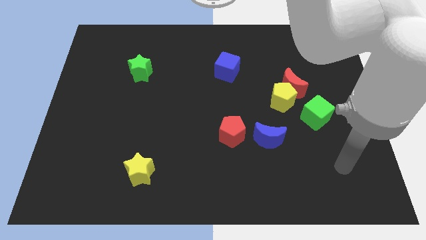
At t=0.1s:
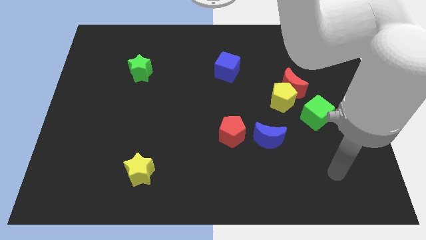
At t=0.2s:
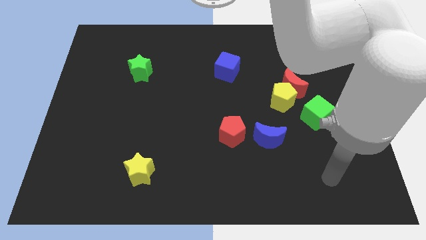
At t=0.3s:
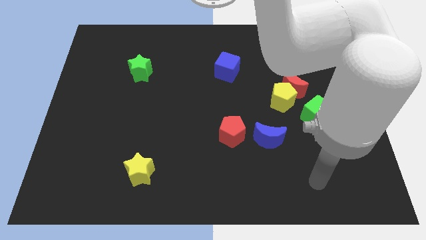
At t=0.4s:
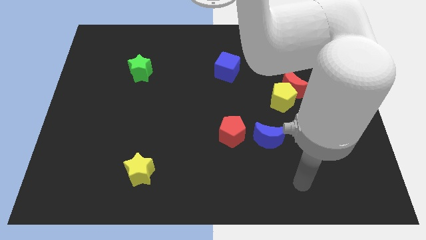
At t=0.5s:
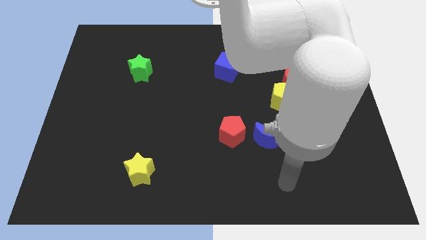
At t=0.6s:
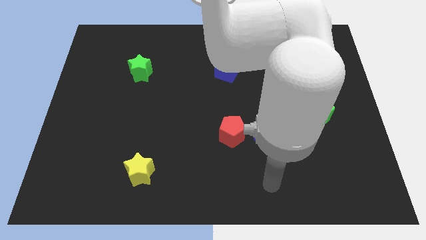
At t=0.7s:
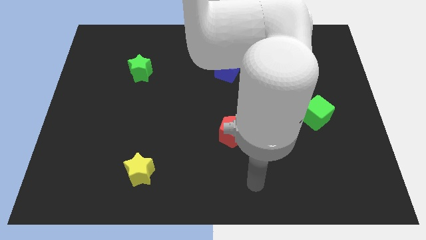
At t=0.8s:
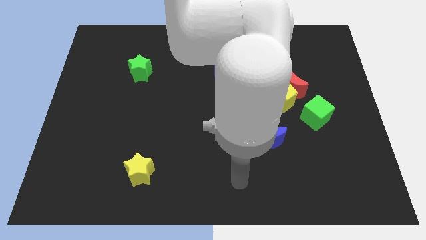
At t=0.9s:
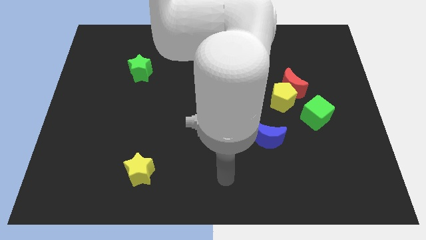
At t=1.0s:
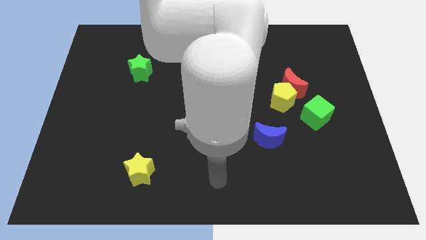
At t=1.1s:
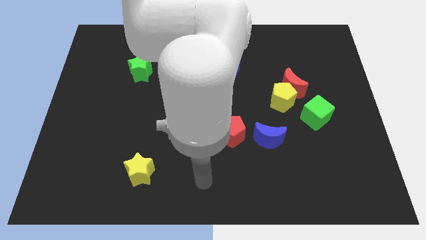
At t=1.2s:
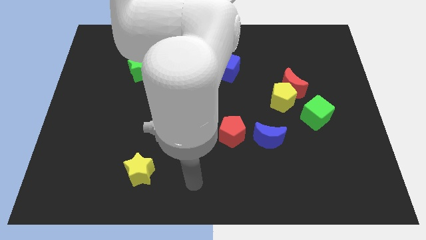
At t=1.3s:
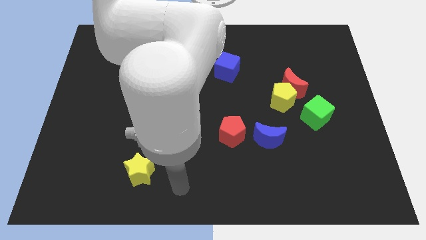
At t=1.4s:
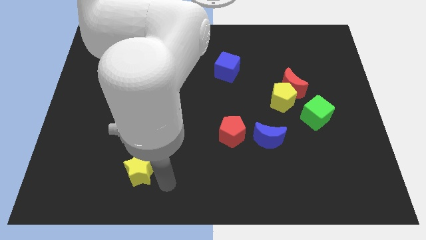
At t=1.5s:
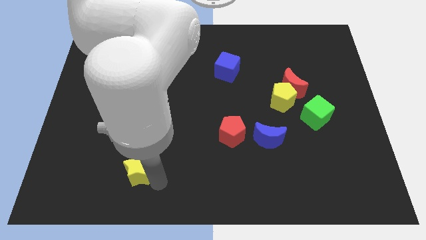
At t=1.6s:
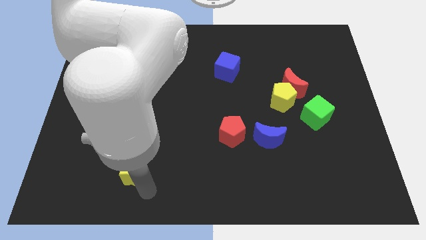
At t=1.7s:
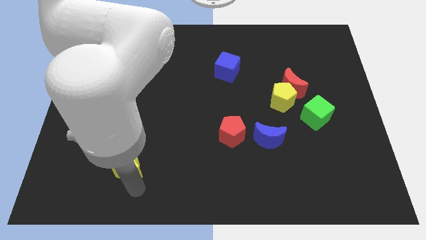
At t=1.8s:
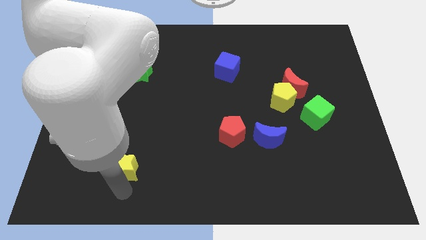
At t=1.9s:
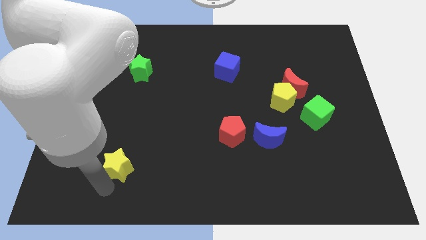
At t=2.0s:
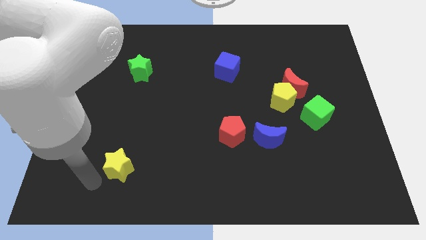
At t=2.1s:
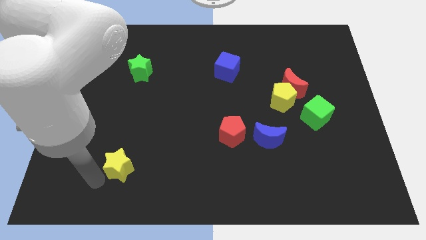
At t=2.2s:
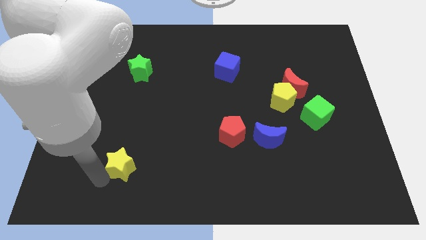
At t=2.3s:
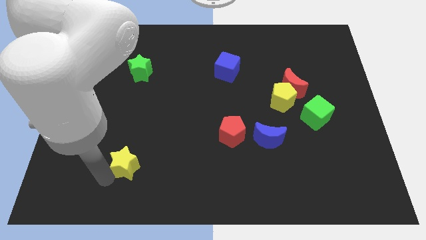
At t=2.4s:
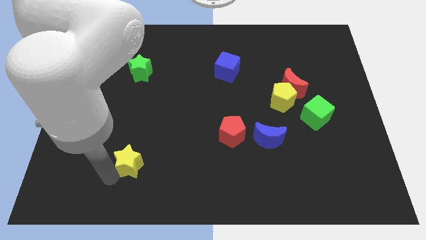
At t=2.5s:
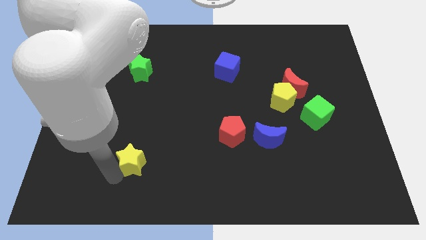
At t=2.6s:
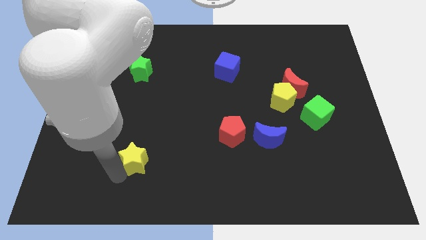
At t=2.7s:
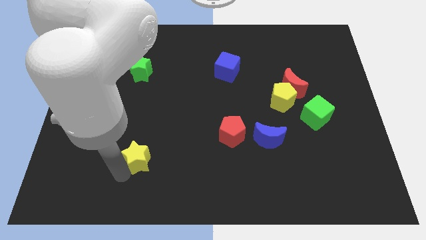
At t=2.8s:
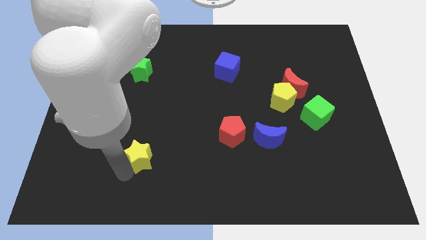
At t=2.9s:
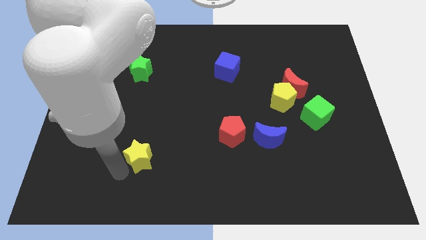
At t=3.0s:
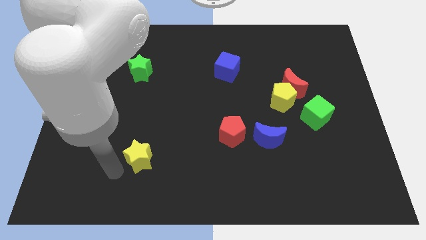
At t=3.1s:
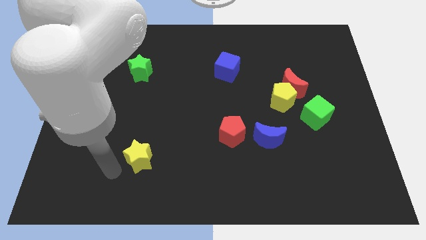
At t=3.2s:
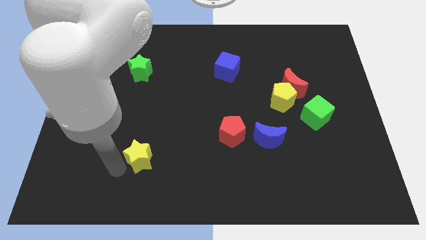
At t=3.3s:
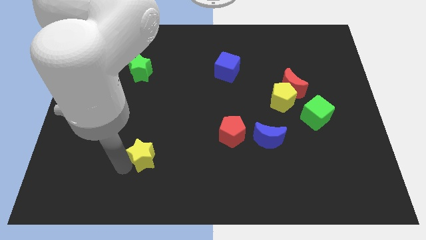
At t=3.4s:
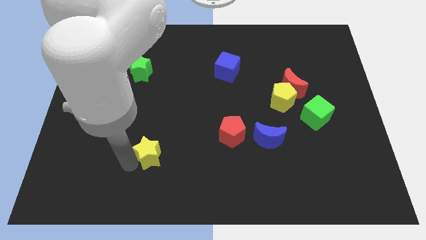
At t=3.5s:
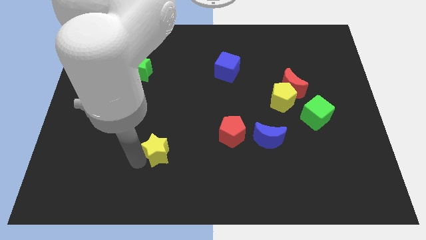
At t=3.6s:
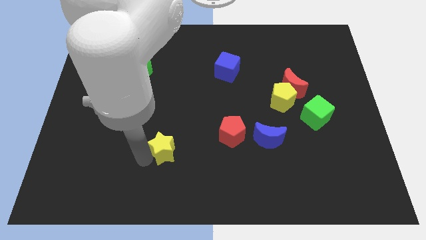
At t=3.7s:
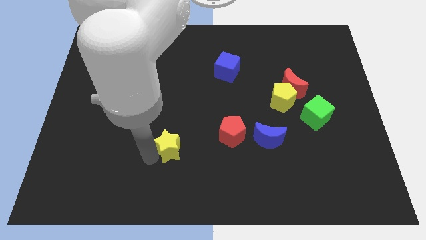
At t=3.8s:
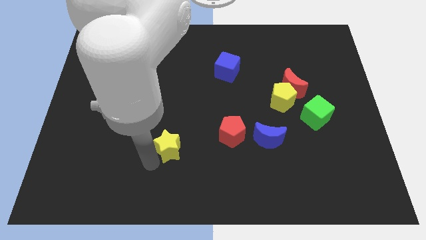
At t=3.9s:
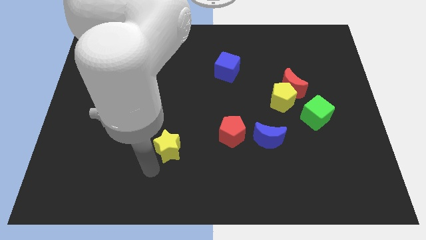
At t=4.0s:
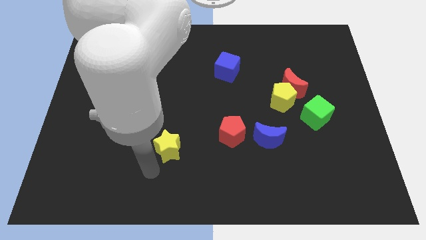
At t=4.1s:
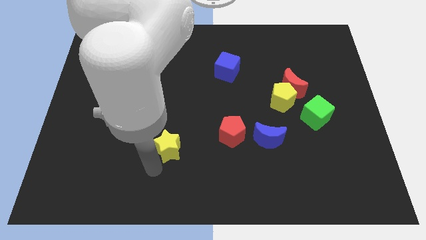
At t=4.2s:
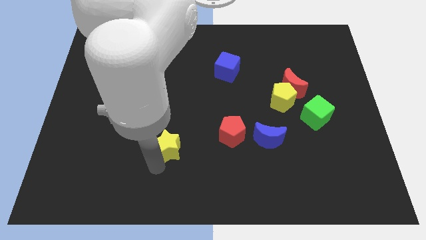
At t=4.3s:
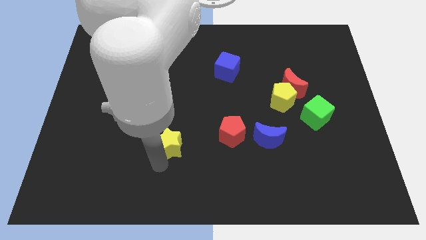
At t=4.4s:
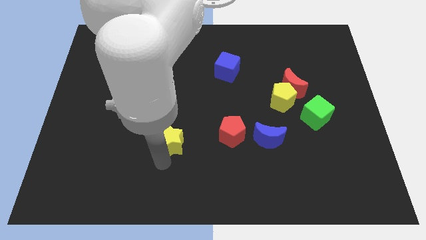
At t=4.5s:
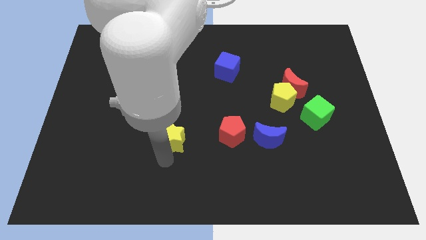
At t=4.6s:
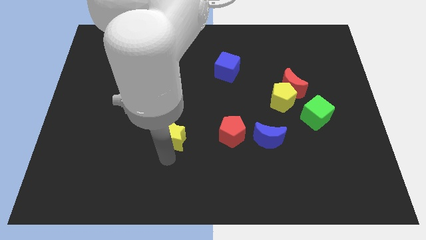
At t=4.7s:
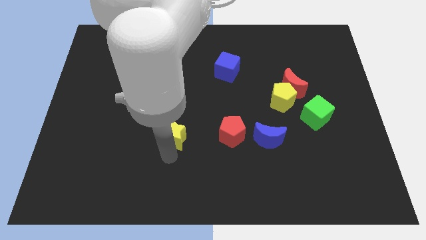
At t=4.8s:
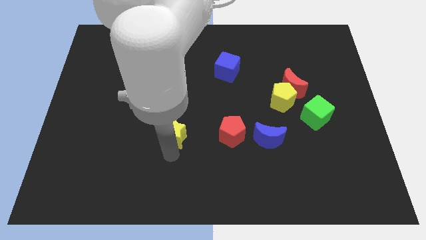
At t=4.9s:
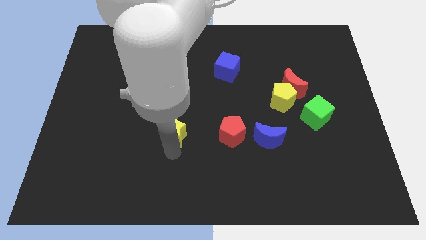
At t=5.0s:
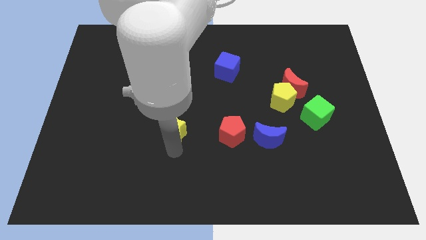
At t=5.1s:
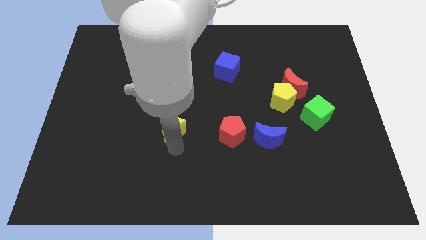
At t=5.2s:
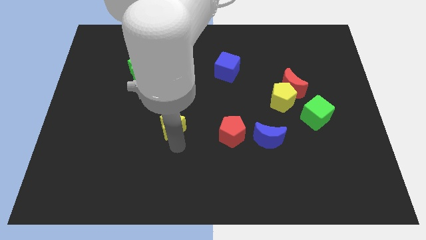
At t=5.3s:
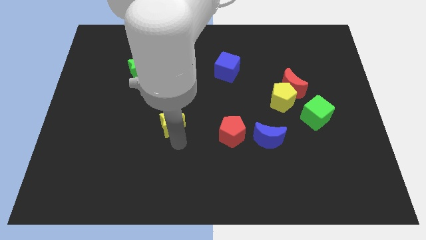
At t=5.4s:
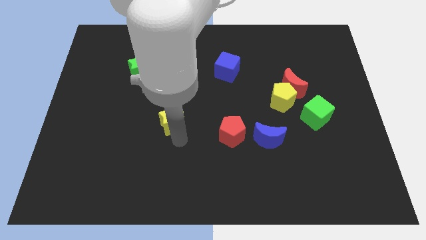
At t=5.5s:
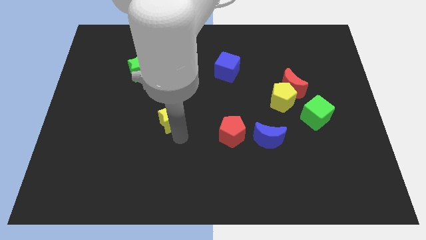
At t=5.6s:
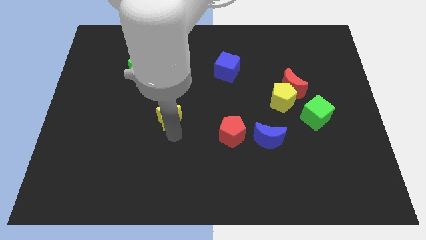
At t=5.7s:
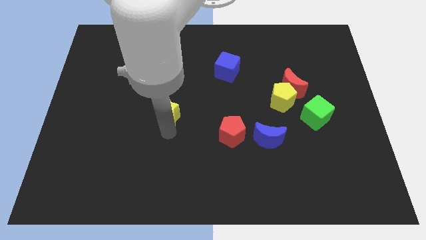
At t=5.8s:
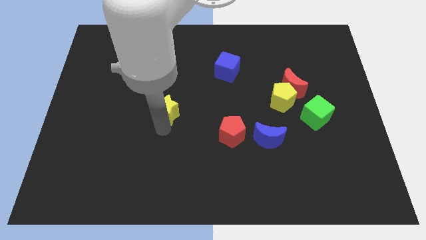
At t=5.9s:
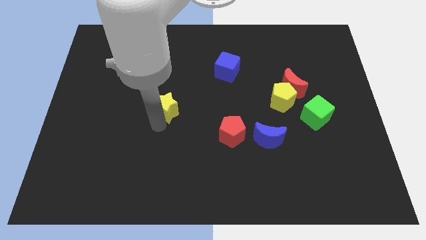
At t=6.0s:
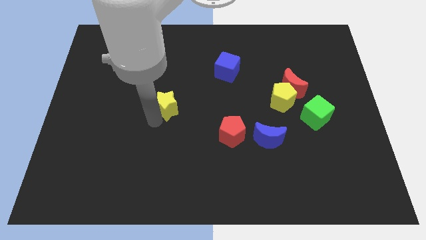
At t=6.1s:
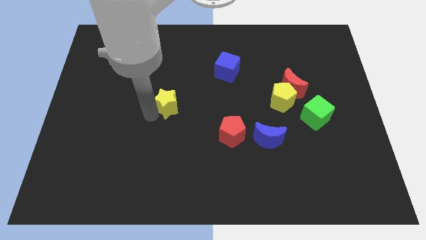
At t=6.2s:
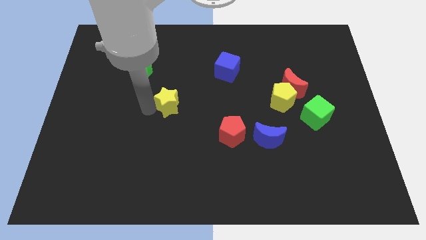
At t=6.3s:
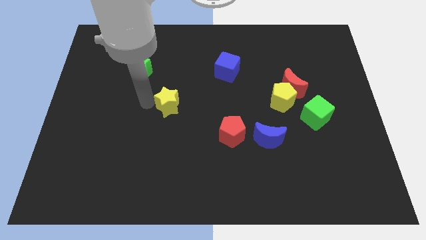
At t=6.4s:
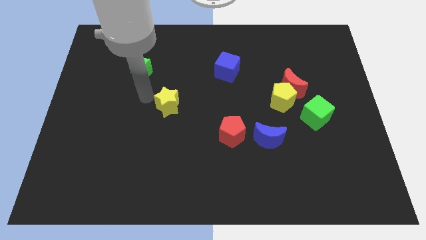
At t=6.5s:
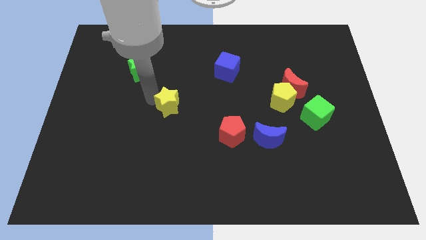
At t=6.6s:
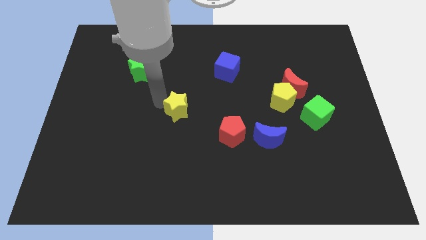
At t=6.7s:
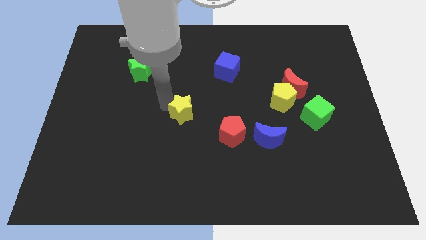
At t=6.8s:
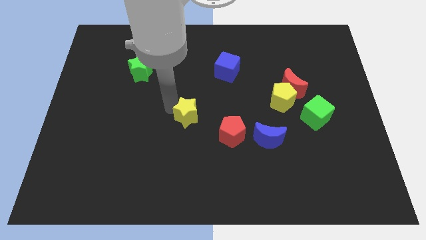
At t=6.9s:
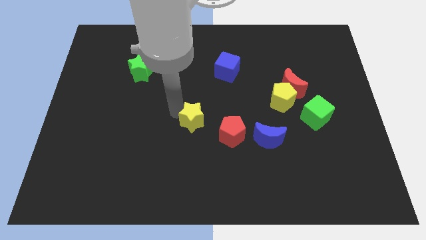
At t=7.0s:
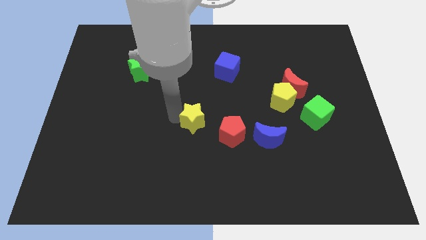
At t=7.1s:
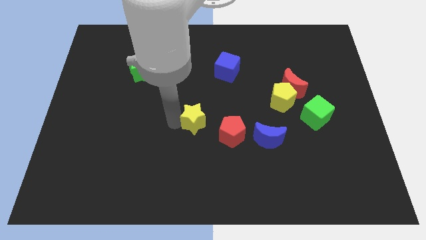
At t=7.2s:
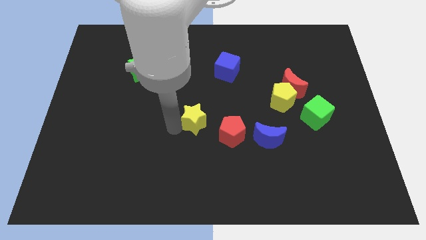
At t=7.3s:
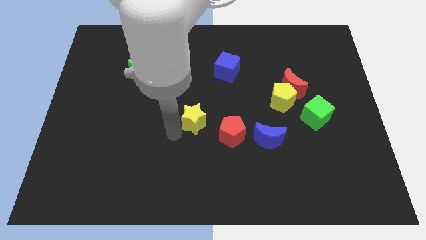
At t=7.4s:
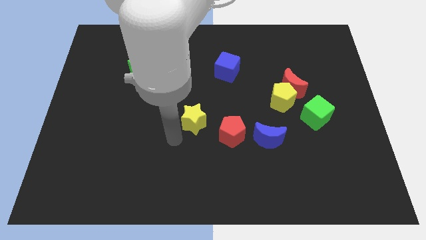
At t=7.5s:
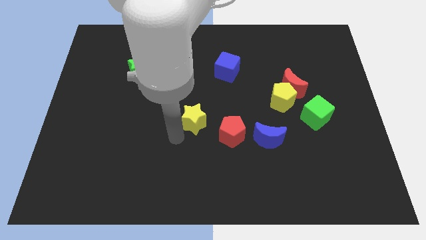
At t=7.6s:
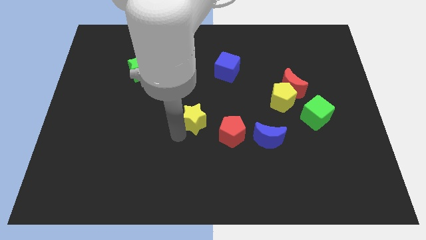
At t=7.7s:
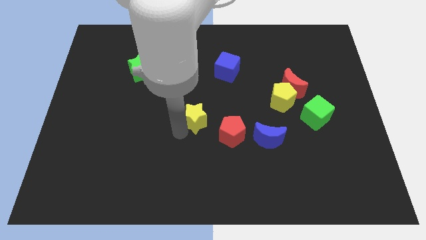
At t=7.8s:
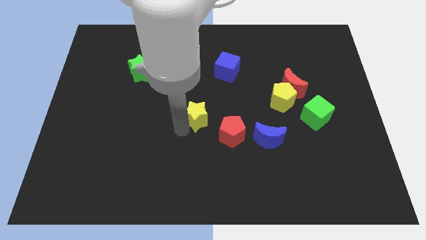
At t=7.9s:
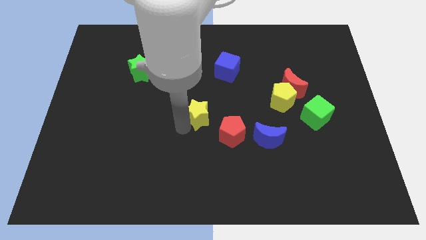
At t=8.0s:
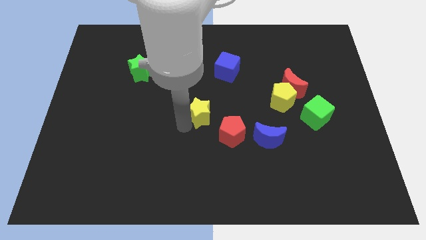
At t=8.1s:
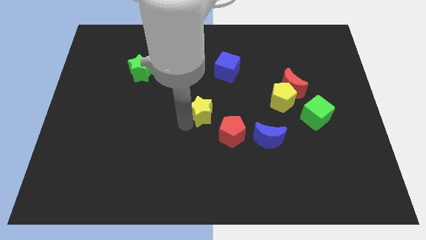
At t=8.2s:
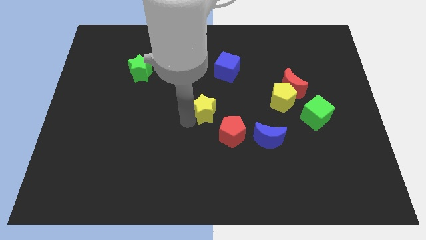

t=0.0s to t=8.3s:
slide the yellow star upwards and to the right diagonally
